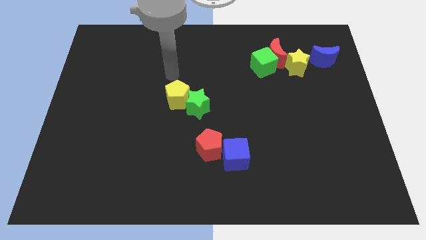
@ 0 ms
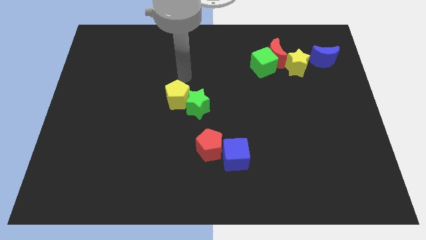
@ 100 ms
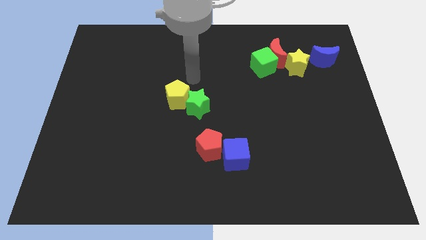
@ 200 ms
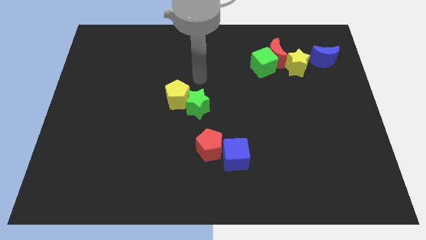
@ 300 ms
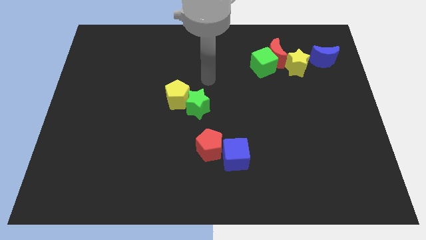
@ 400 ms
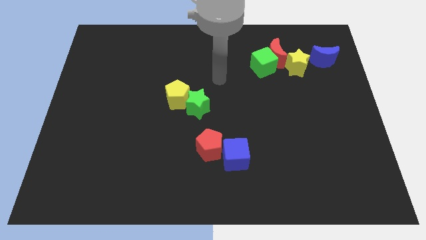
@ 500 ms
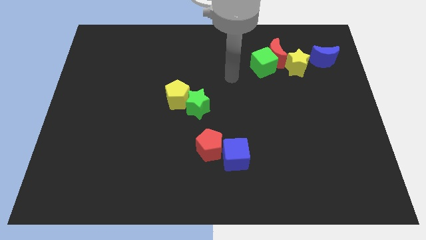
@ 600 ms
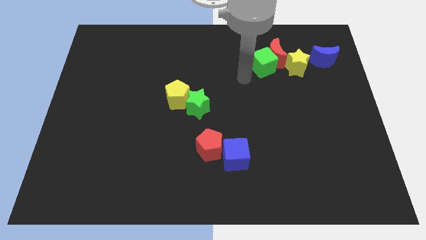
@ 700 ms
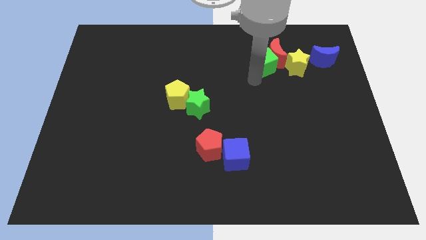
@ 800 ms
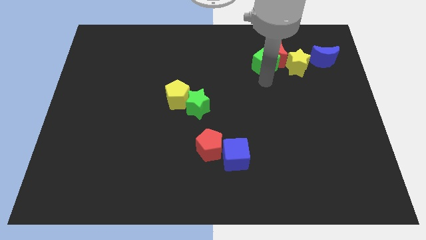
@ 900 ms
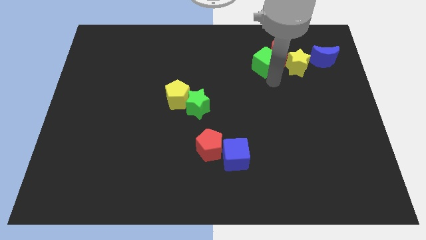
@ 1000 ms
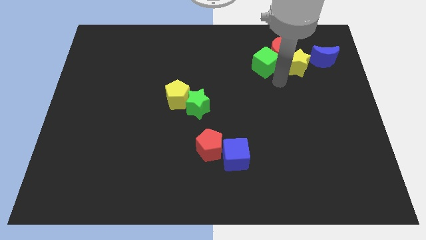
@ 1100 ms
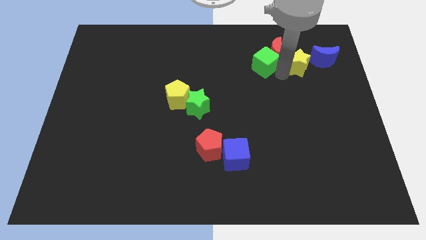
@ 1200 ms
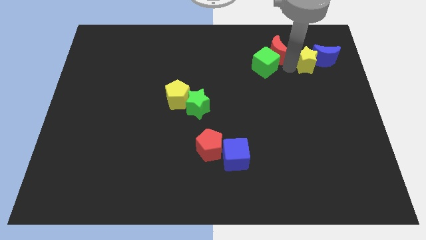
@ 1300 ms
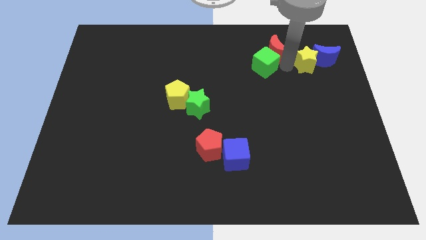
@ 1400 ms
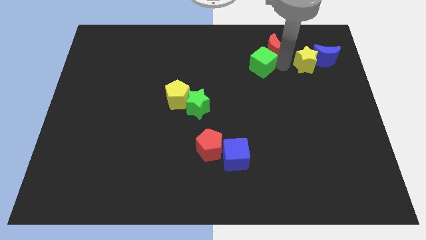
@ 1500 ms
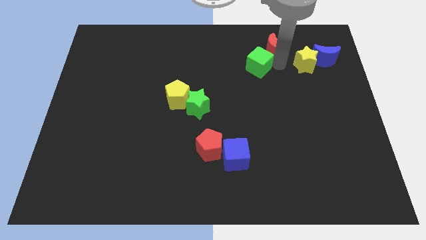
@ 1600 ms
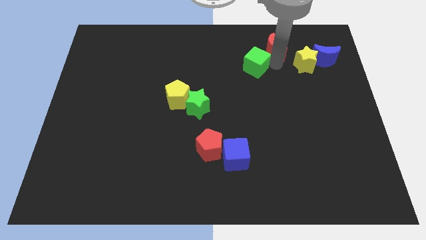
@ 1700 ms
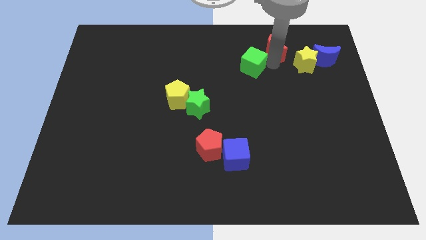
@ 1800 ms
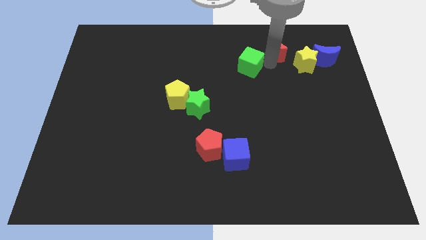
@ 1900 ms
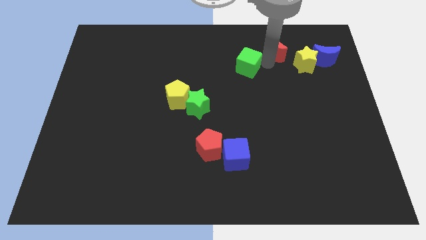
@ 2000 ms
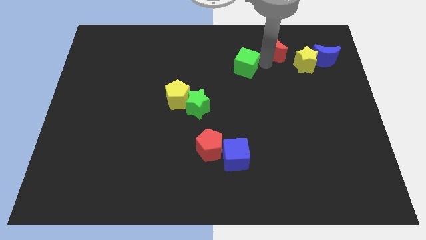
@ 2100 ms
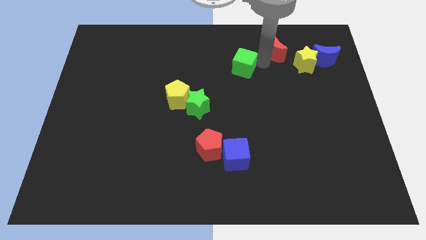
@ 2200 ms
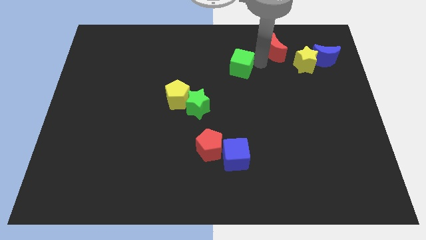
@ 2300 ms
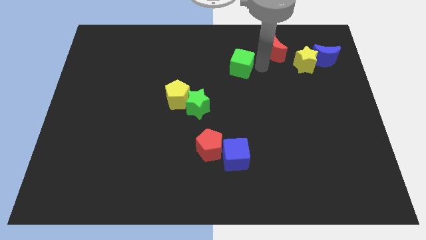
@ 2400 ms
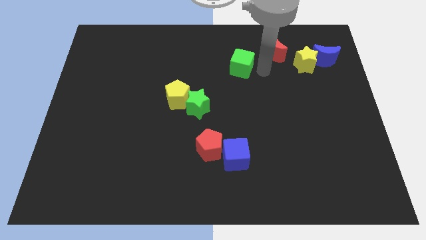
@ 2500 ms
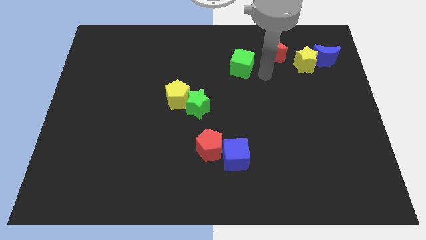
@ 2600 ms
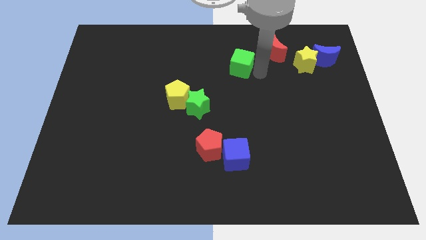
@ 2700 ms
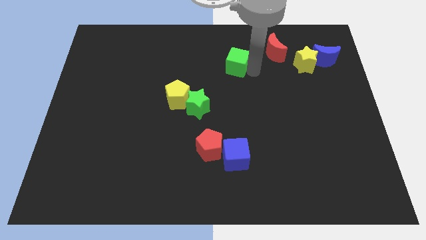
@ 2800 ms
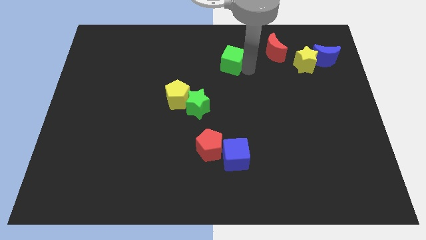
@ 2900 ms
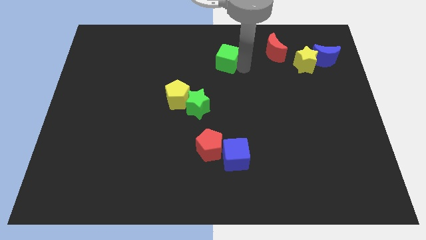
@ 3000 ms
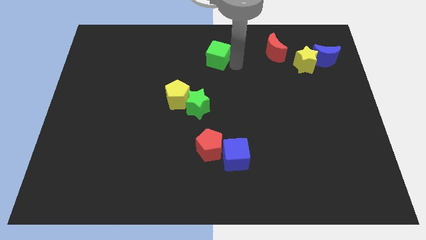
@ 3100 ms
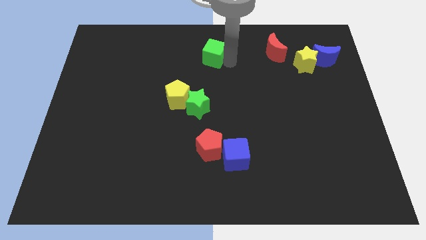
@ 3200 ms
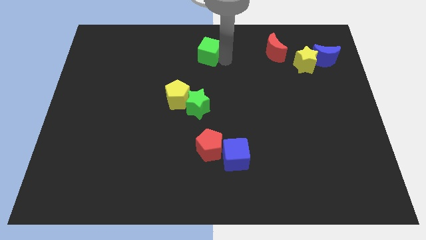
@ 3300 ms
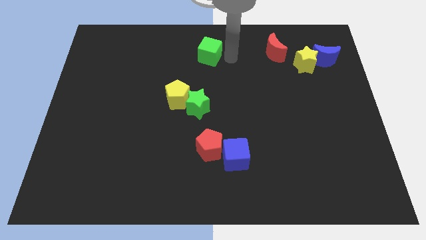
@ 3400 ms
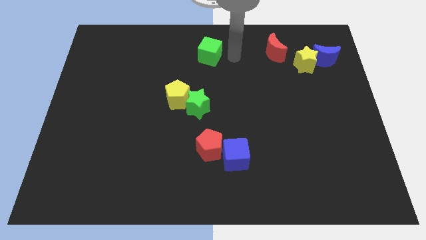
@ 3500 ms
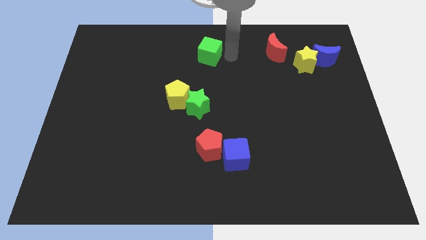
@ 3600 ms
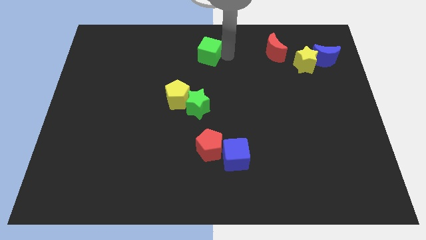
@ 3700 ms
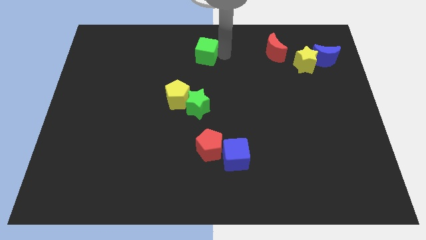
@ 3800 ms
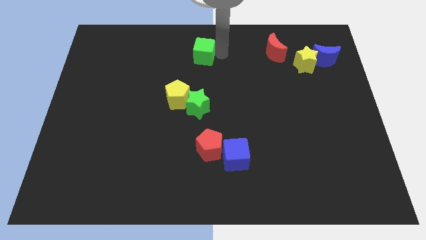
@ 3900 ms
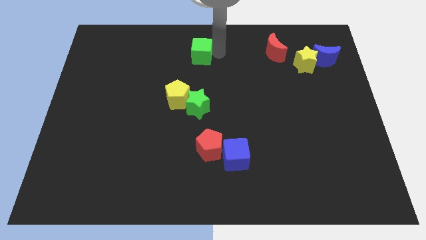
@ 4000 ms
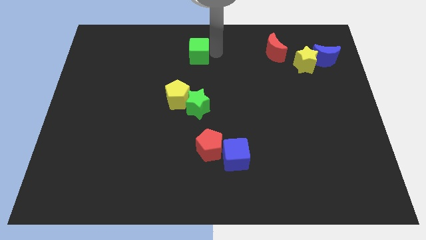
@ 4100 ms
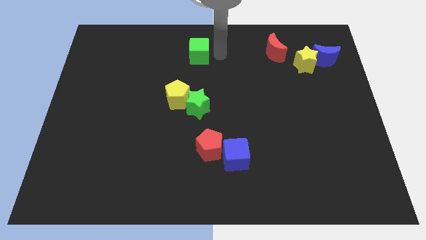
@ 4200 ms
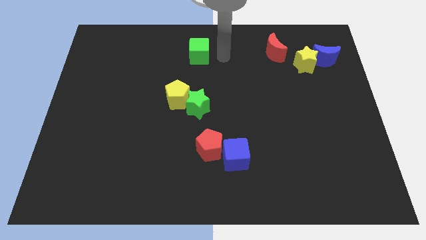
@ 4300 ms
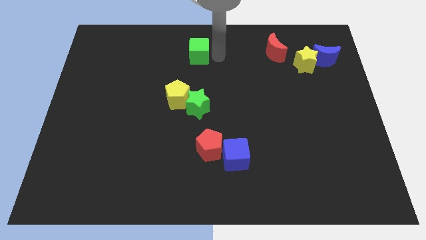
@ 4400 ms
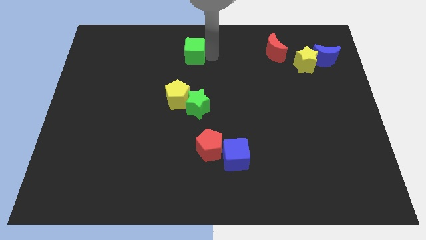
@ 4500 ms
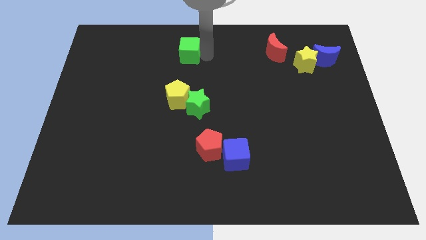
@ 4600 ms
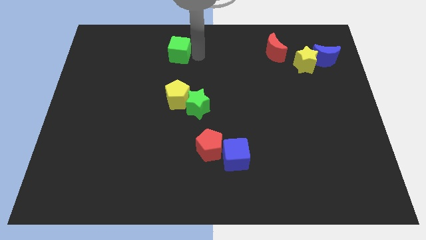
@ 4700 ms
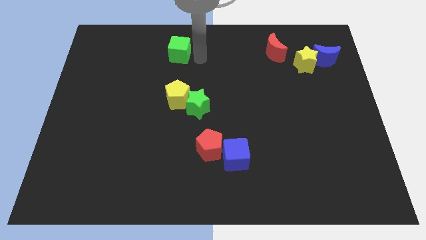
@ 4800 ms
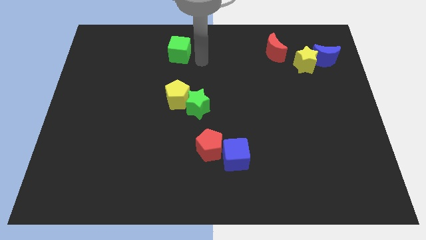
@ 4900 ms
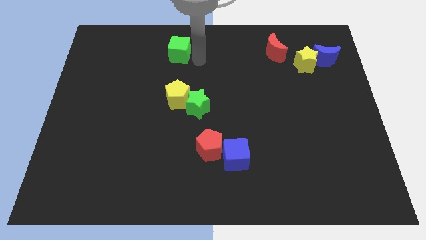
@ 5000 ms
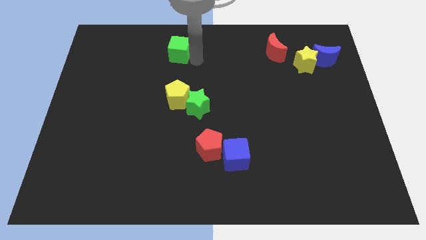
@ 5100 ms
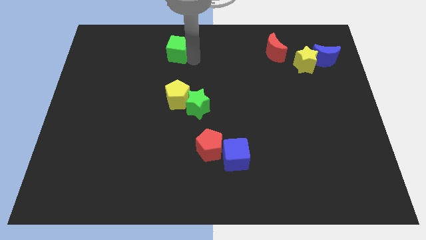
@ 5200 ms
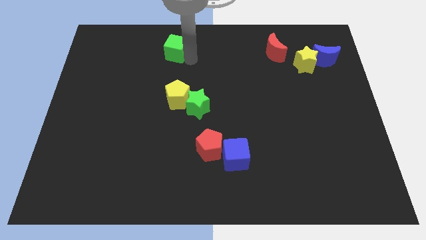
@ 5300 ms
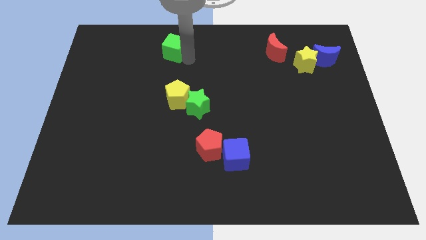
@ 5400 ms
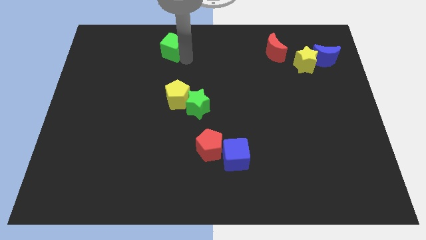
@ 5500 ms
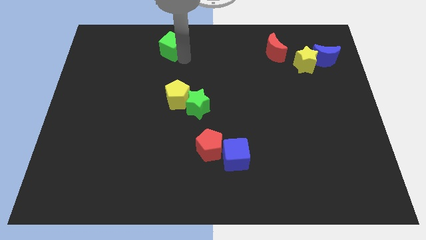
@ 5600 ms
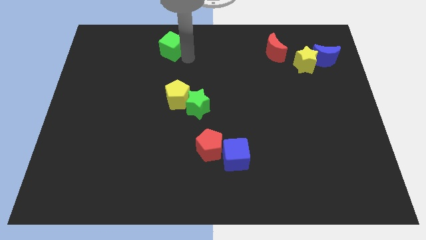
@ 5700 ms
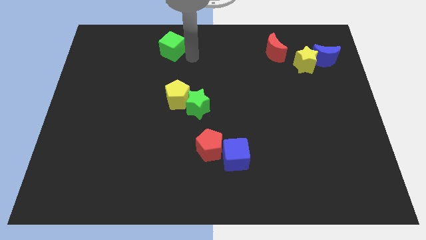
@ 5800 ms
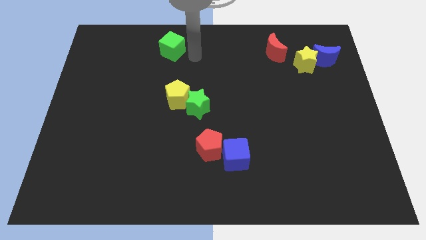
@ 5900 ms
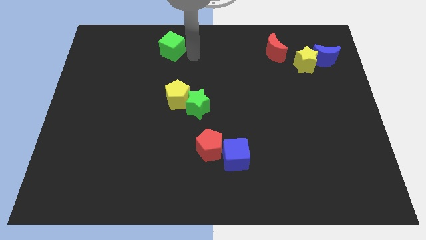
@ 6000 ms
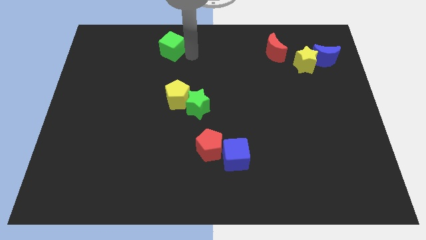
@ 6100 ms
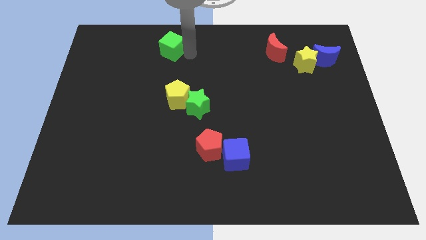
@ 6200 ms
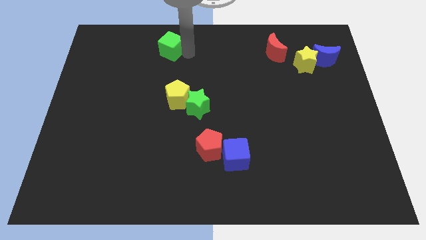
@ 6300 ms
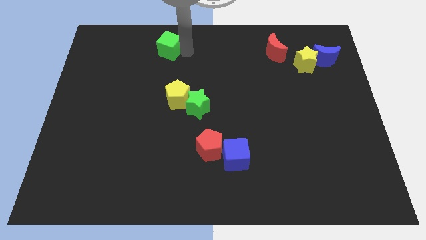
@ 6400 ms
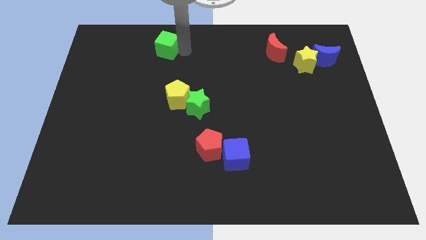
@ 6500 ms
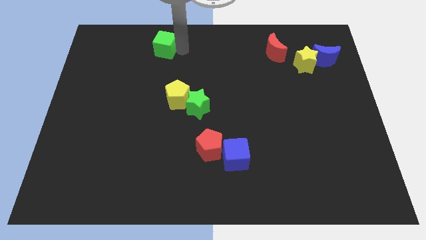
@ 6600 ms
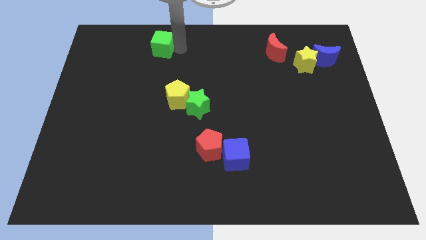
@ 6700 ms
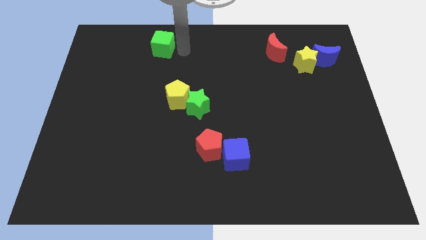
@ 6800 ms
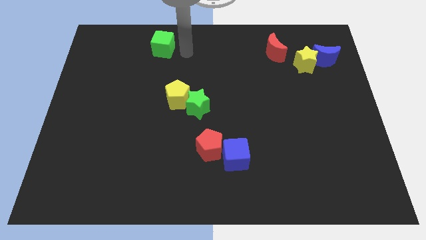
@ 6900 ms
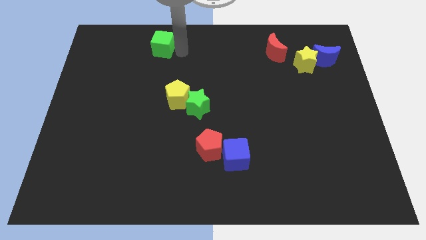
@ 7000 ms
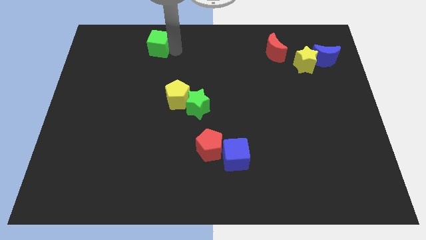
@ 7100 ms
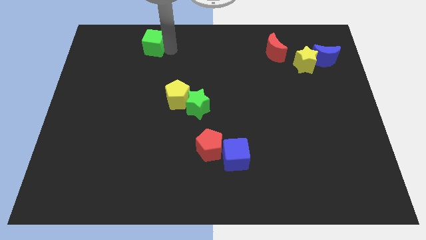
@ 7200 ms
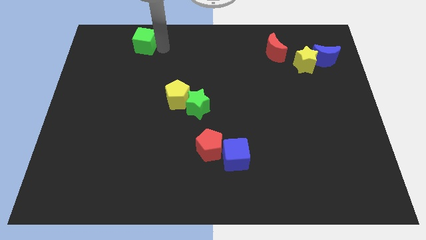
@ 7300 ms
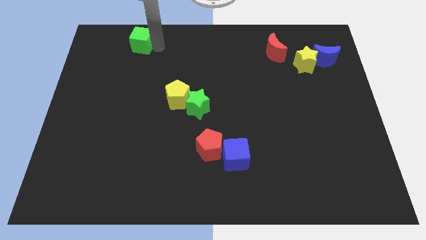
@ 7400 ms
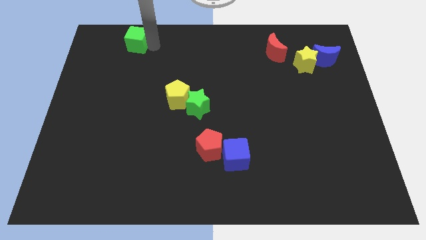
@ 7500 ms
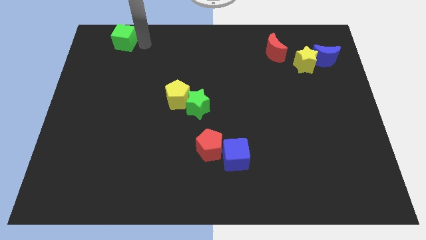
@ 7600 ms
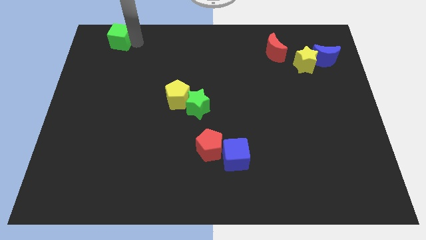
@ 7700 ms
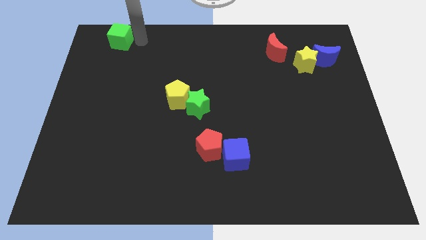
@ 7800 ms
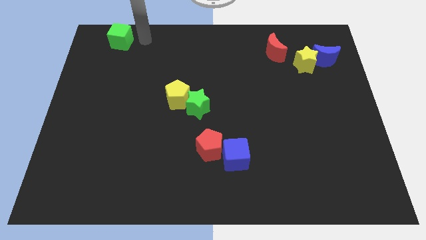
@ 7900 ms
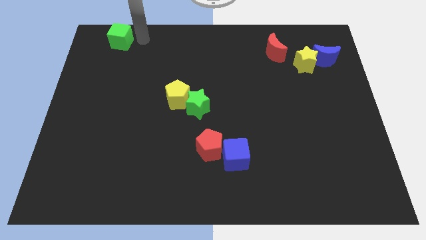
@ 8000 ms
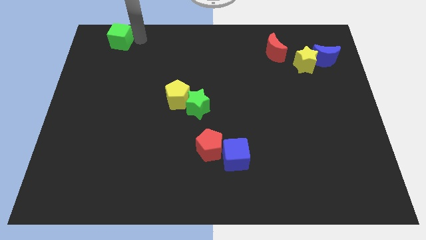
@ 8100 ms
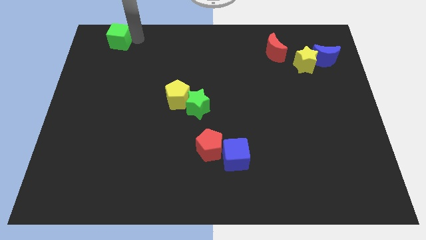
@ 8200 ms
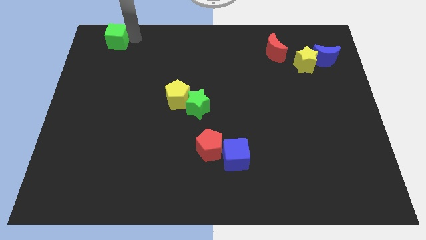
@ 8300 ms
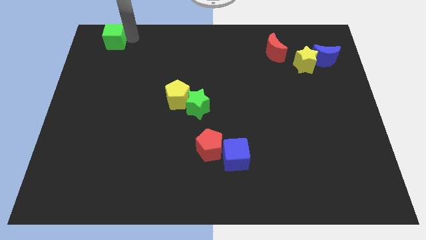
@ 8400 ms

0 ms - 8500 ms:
slide the green cube to the top left
